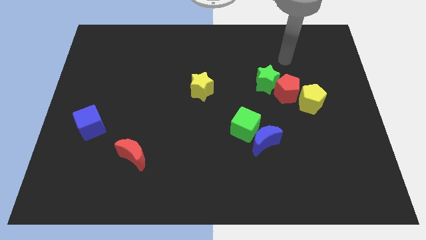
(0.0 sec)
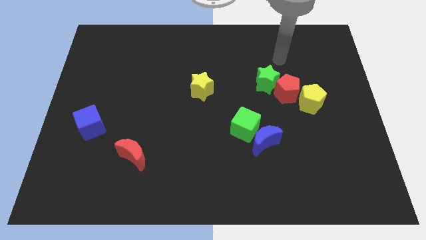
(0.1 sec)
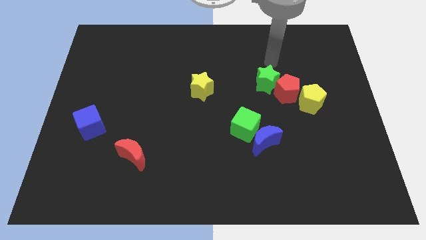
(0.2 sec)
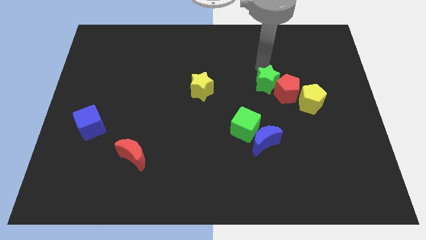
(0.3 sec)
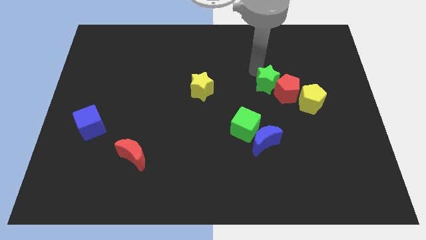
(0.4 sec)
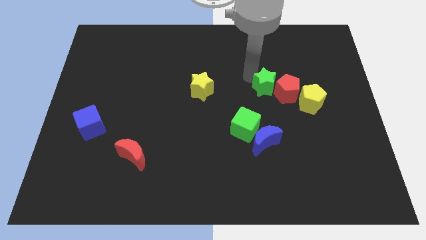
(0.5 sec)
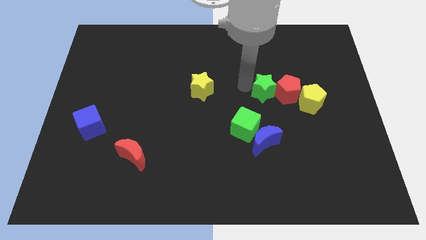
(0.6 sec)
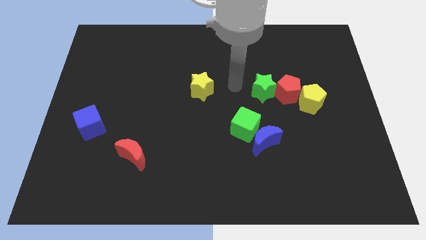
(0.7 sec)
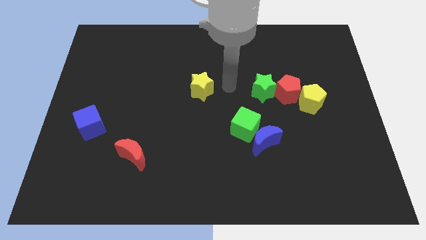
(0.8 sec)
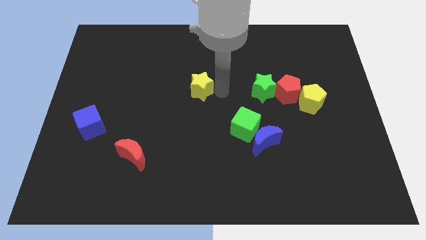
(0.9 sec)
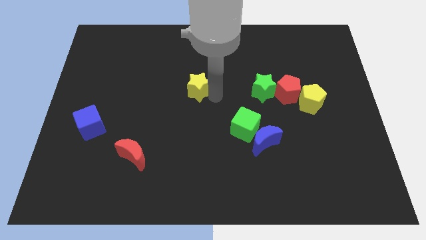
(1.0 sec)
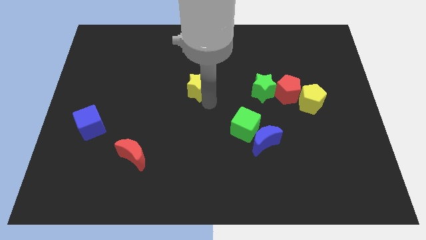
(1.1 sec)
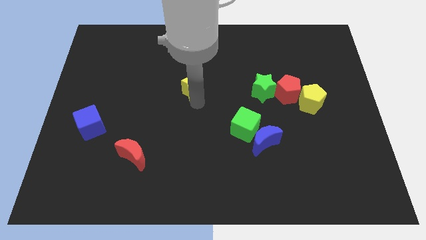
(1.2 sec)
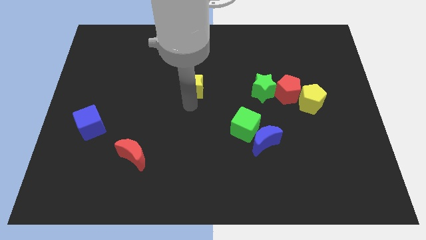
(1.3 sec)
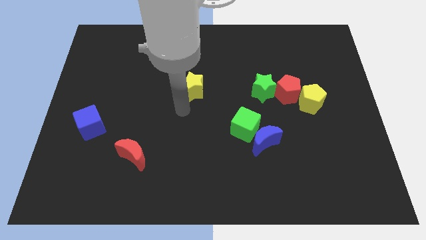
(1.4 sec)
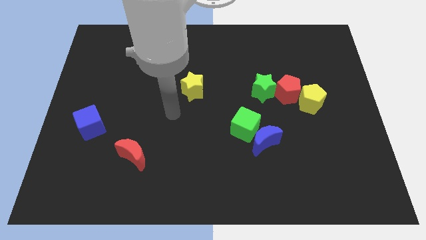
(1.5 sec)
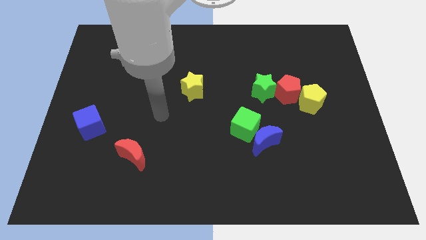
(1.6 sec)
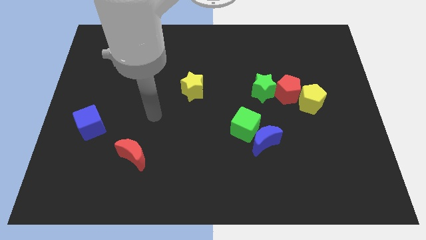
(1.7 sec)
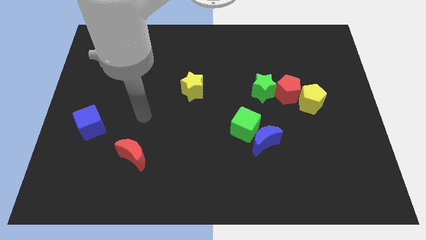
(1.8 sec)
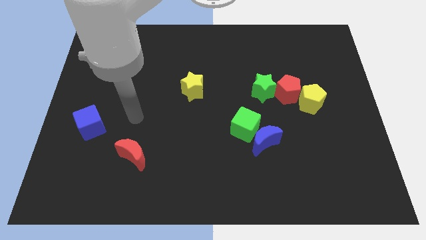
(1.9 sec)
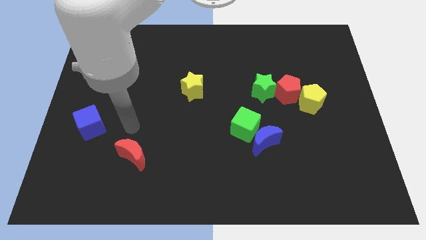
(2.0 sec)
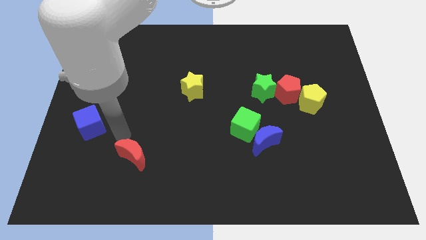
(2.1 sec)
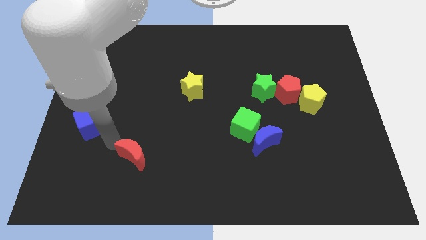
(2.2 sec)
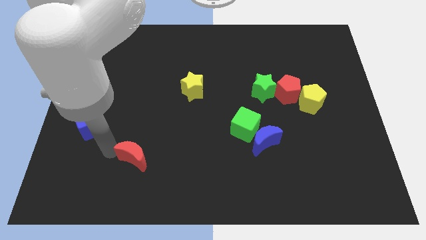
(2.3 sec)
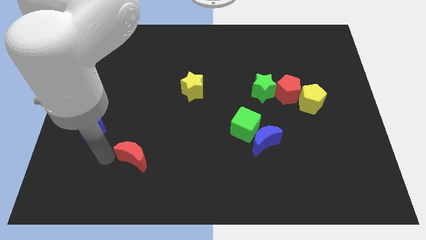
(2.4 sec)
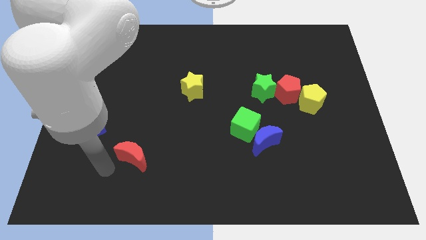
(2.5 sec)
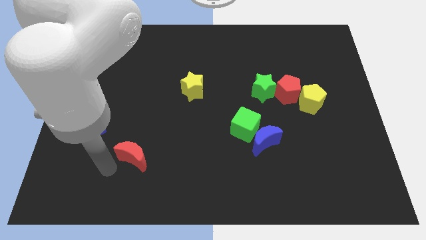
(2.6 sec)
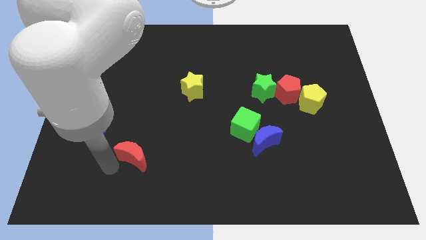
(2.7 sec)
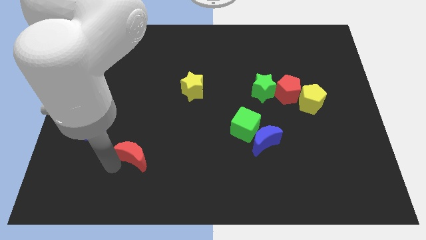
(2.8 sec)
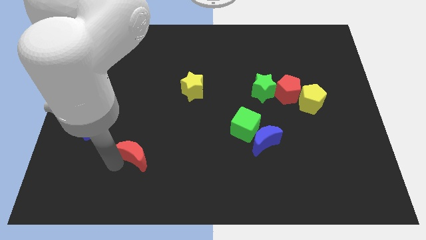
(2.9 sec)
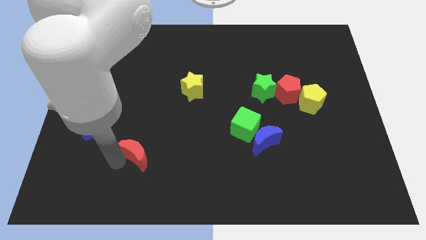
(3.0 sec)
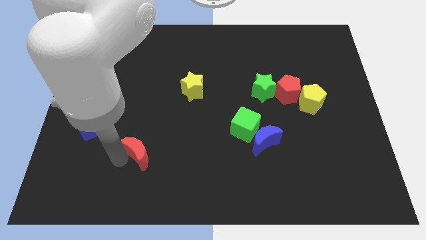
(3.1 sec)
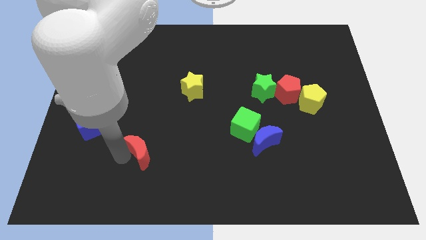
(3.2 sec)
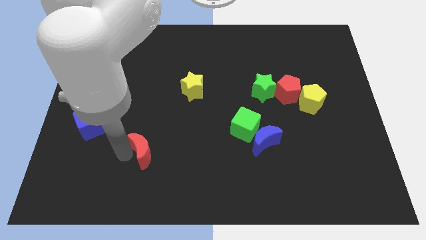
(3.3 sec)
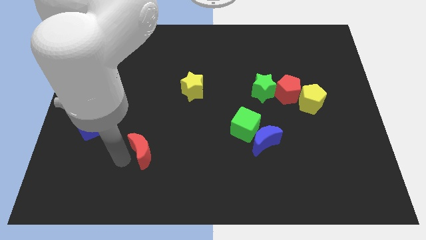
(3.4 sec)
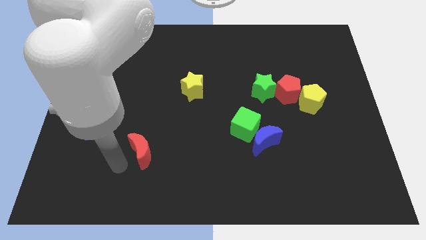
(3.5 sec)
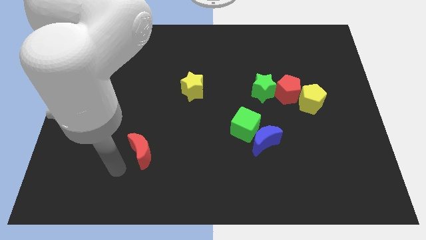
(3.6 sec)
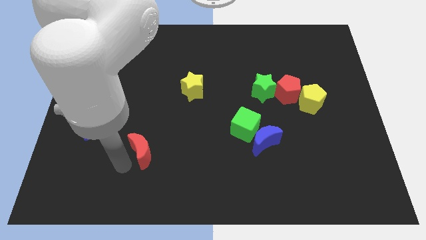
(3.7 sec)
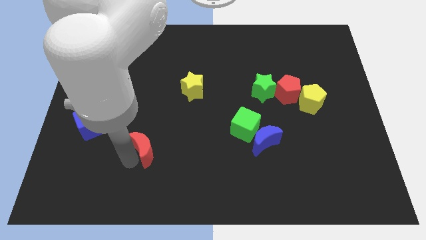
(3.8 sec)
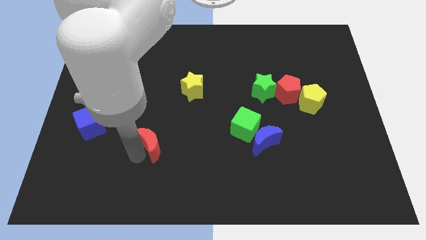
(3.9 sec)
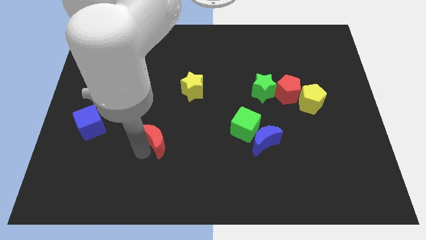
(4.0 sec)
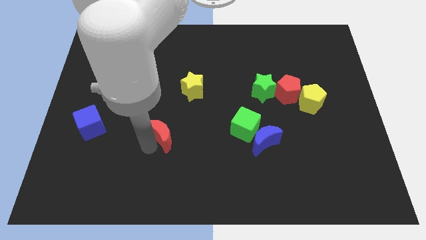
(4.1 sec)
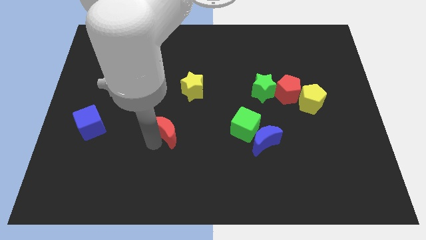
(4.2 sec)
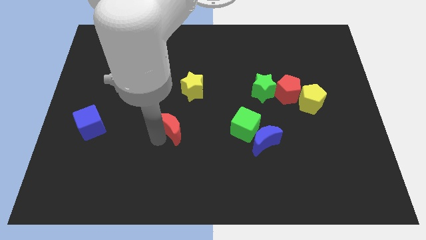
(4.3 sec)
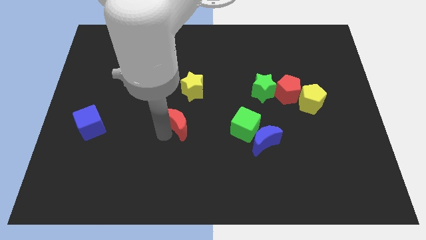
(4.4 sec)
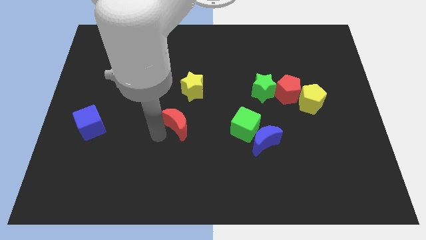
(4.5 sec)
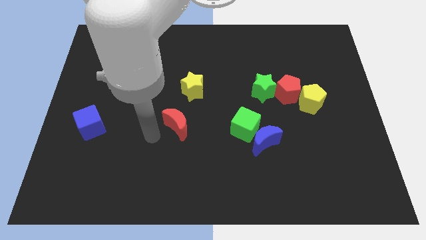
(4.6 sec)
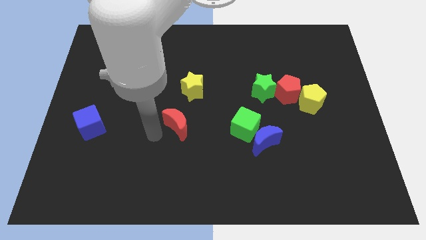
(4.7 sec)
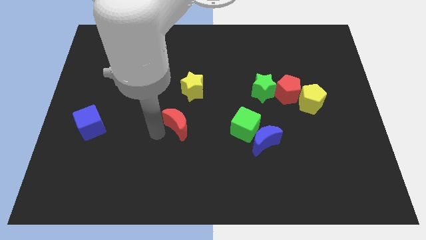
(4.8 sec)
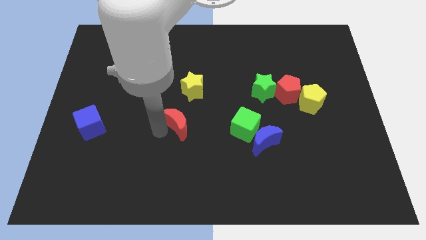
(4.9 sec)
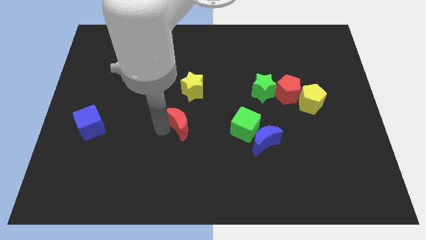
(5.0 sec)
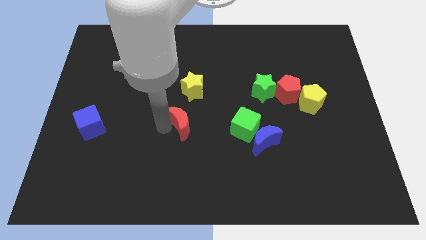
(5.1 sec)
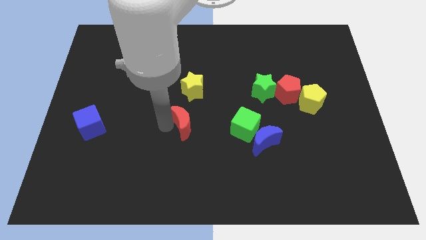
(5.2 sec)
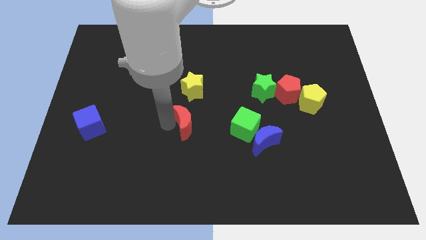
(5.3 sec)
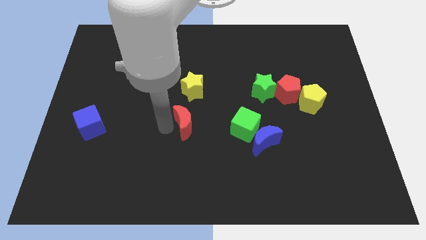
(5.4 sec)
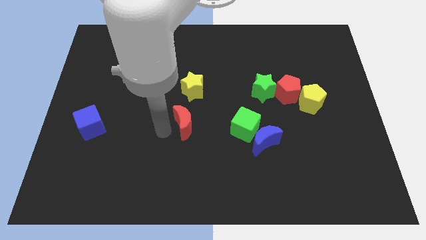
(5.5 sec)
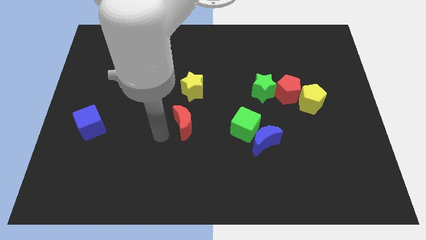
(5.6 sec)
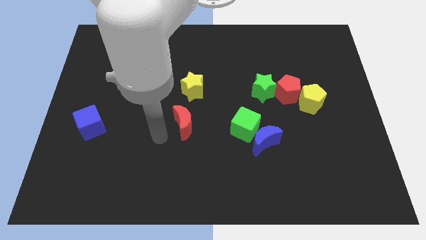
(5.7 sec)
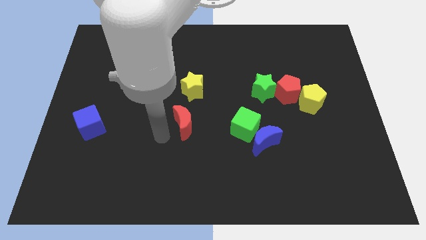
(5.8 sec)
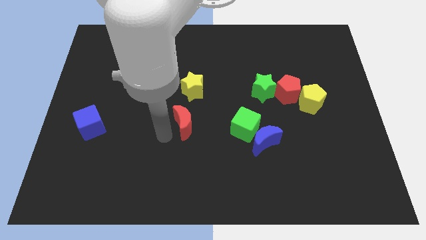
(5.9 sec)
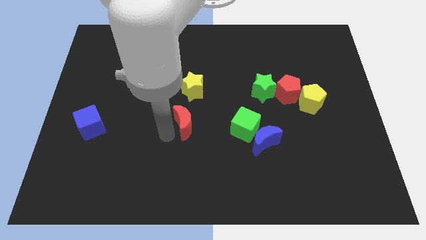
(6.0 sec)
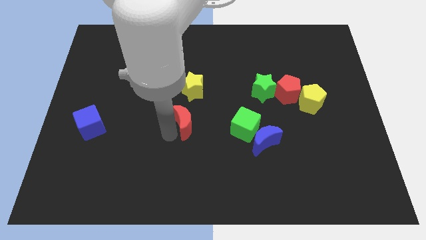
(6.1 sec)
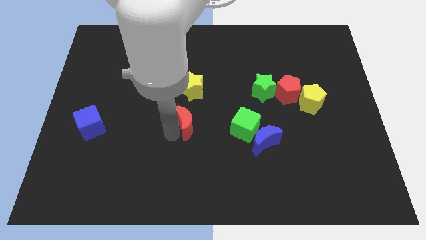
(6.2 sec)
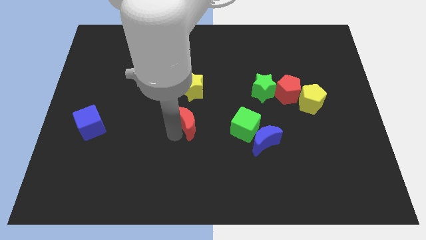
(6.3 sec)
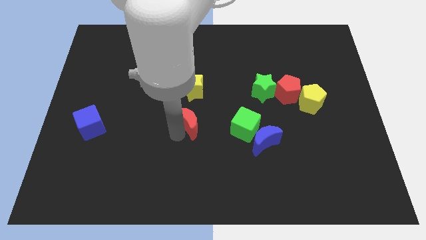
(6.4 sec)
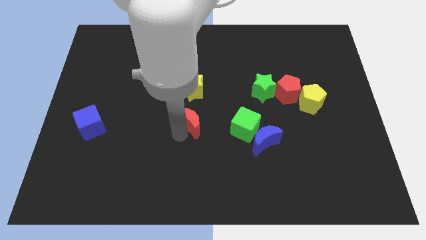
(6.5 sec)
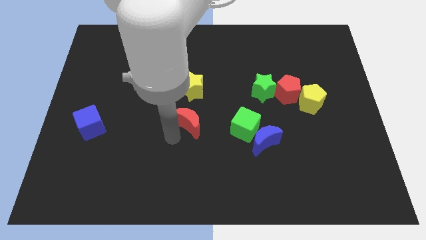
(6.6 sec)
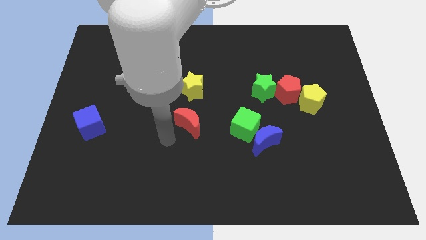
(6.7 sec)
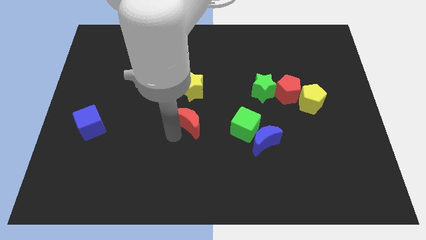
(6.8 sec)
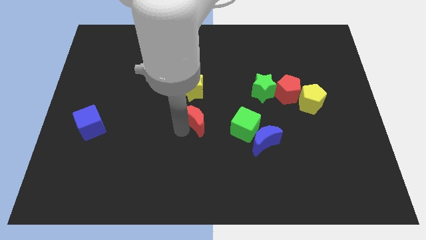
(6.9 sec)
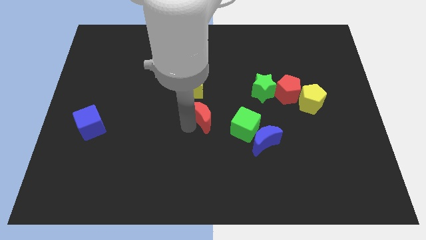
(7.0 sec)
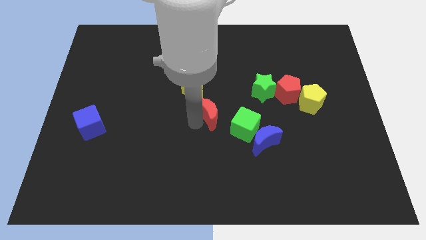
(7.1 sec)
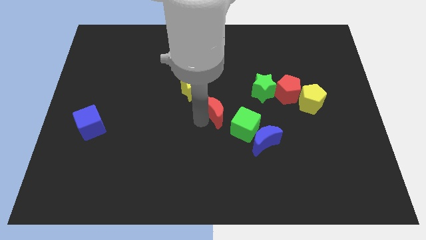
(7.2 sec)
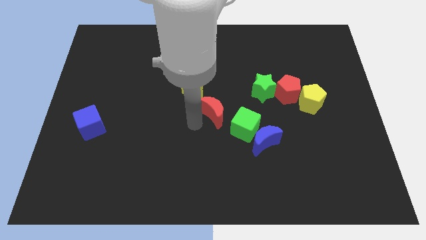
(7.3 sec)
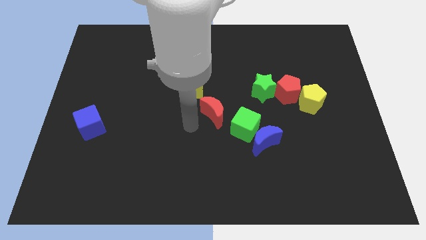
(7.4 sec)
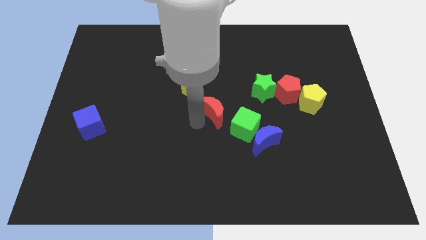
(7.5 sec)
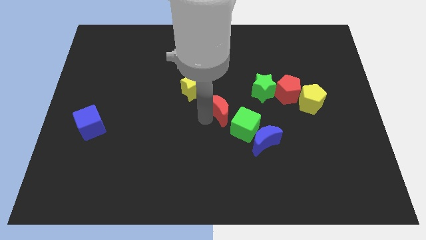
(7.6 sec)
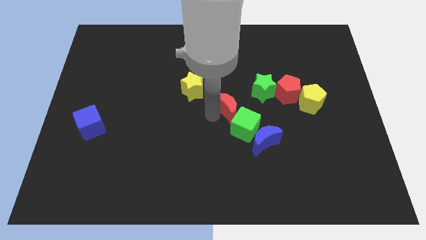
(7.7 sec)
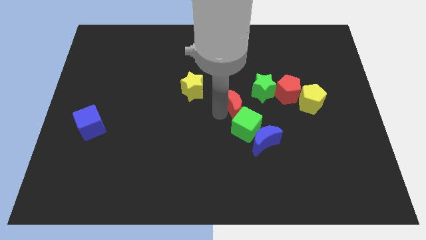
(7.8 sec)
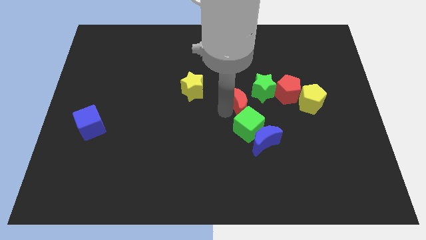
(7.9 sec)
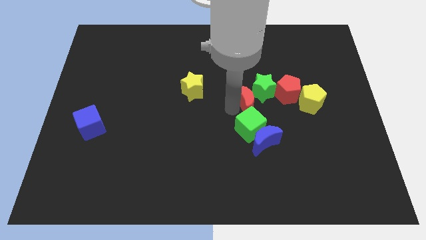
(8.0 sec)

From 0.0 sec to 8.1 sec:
slide the red moon to the green star

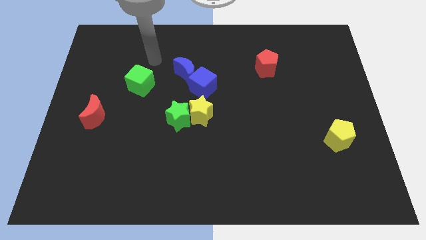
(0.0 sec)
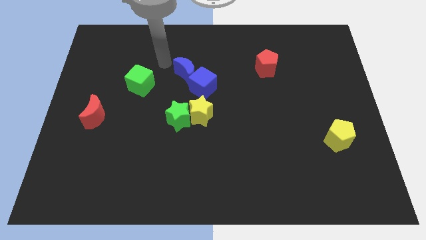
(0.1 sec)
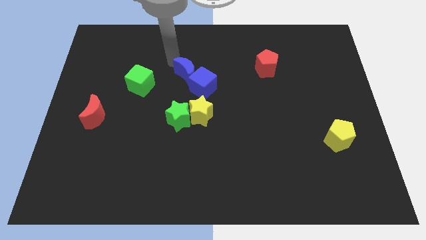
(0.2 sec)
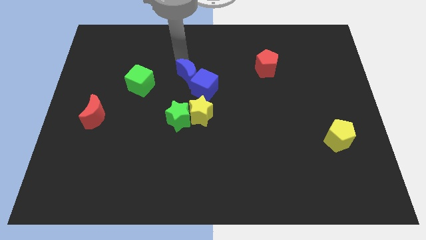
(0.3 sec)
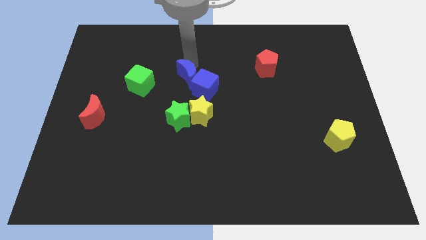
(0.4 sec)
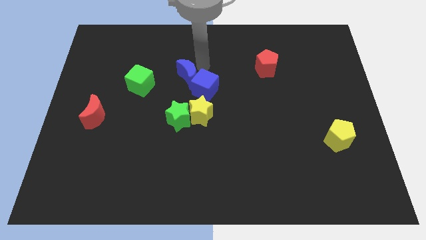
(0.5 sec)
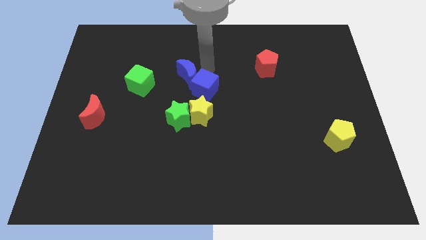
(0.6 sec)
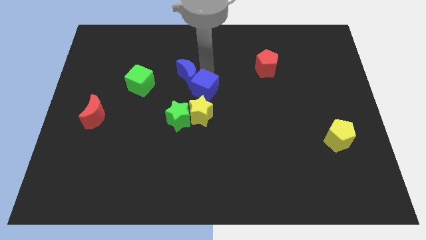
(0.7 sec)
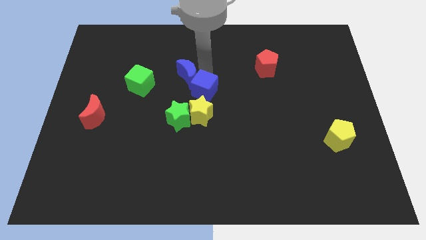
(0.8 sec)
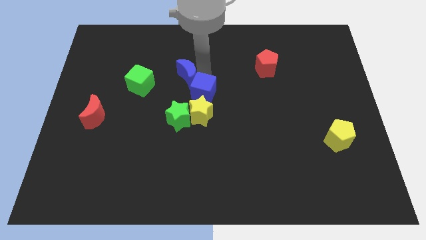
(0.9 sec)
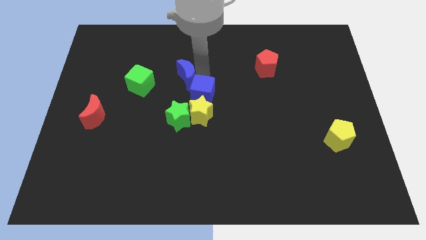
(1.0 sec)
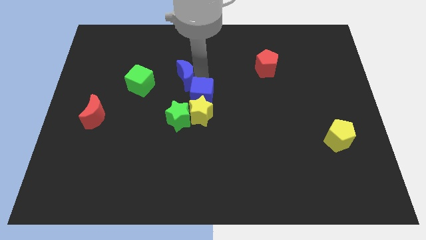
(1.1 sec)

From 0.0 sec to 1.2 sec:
put the blue cube to the yellow star
